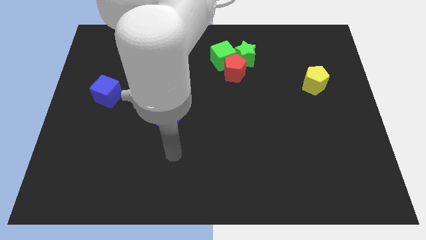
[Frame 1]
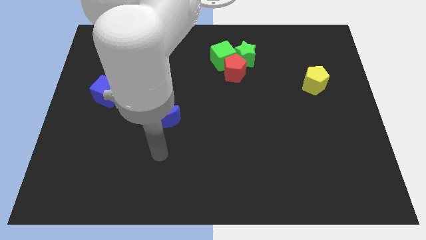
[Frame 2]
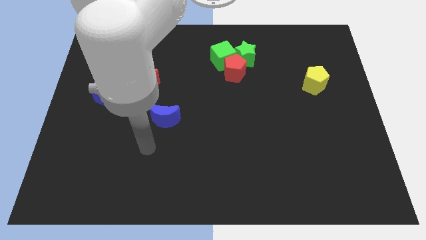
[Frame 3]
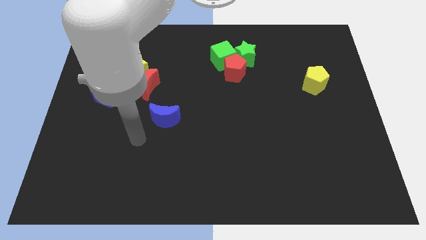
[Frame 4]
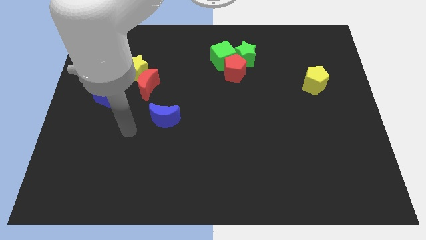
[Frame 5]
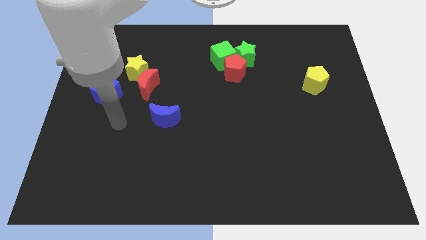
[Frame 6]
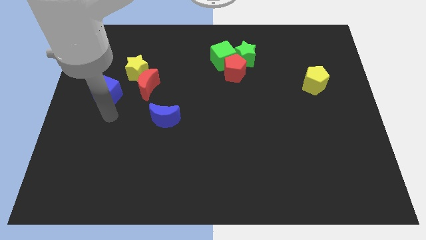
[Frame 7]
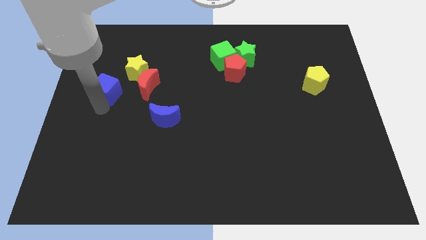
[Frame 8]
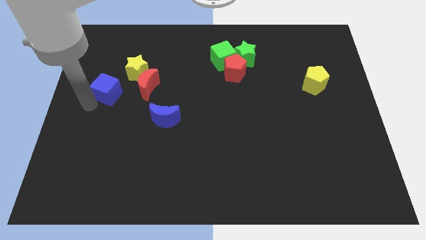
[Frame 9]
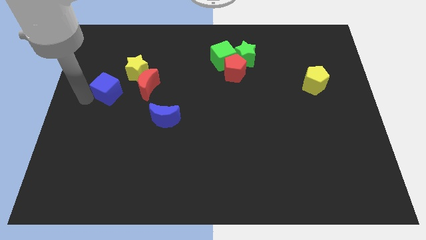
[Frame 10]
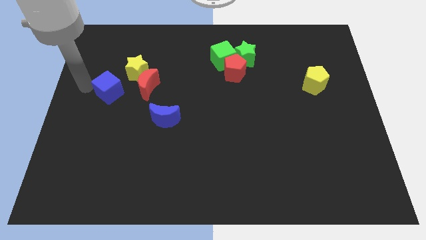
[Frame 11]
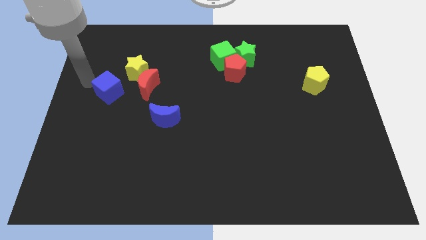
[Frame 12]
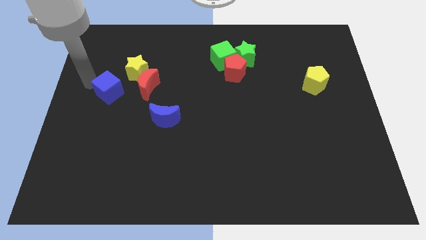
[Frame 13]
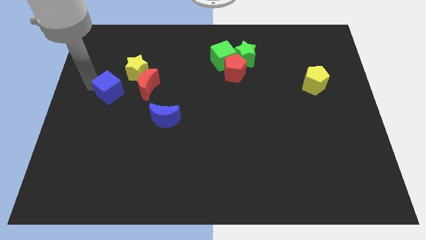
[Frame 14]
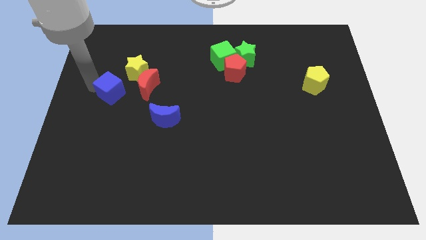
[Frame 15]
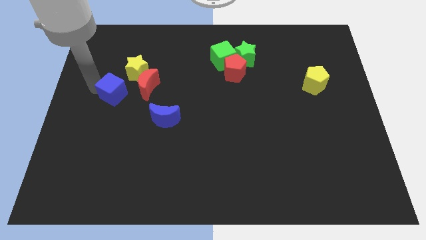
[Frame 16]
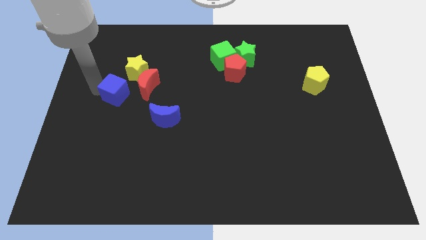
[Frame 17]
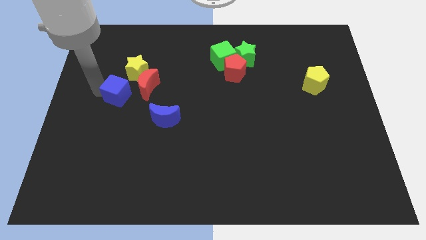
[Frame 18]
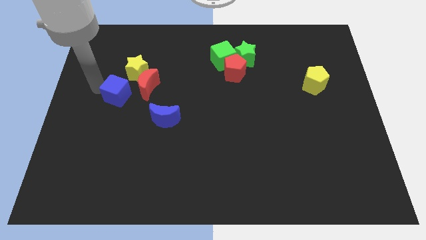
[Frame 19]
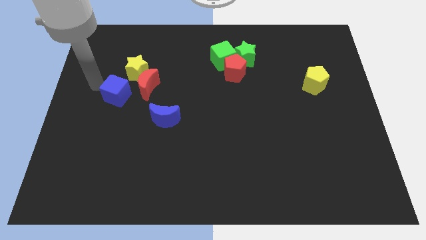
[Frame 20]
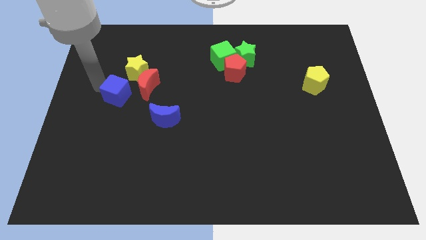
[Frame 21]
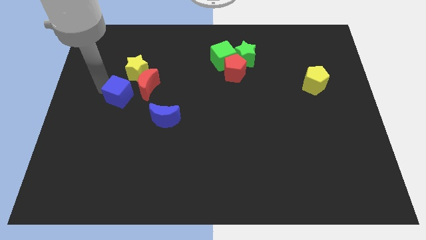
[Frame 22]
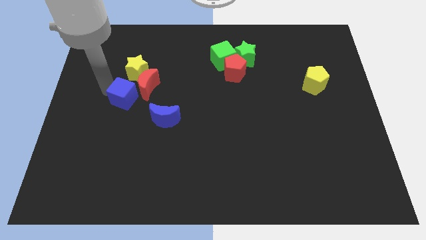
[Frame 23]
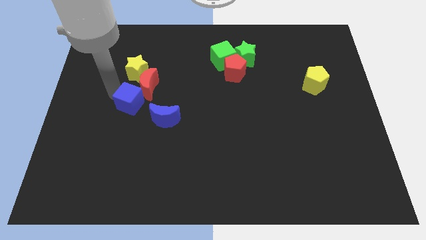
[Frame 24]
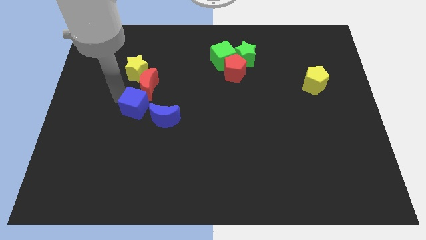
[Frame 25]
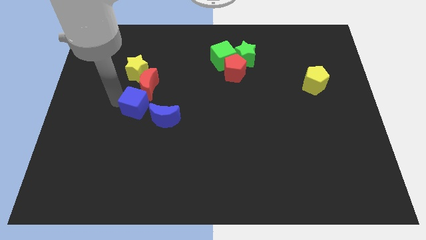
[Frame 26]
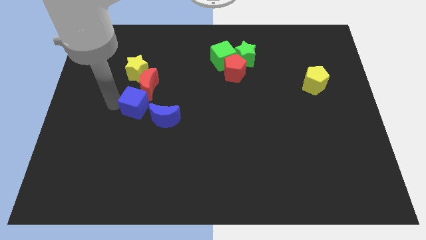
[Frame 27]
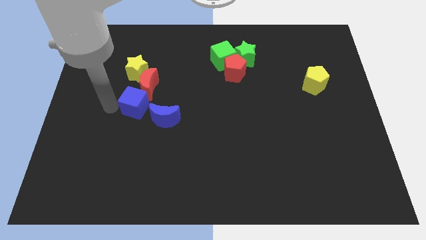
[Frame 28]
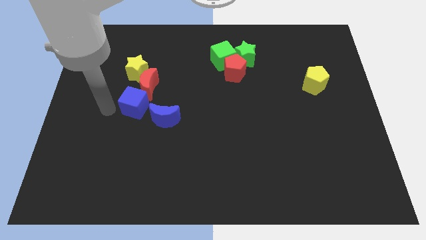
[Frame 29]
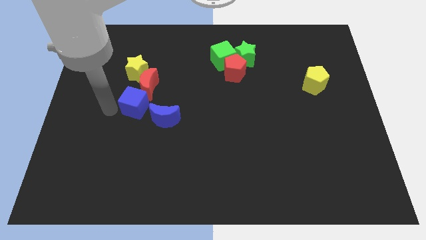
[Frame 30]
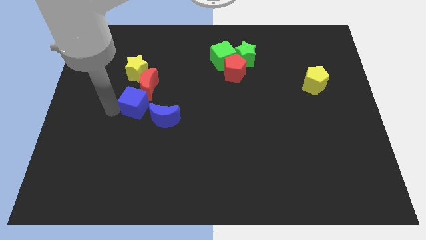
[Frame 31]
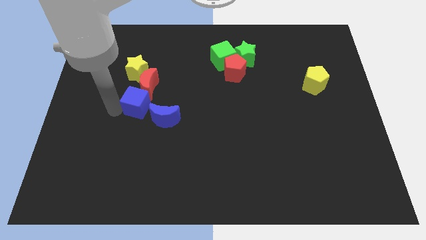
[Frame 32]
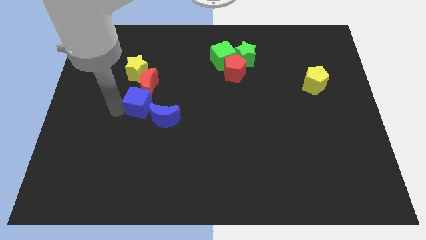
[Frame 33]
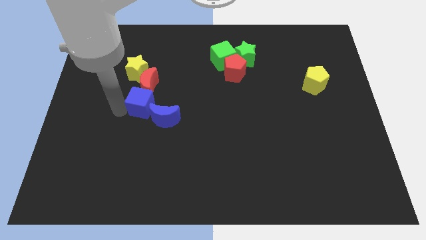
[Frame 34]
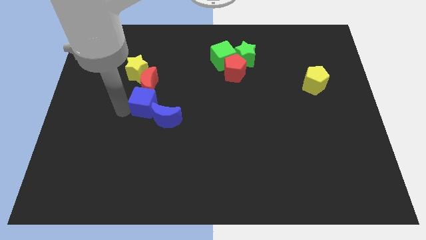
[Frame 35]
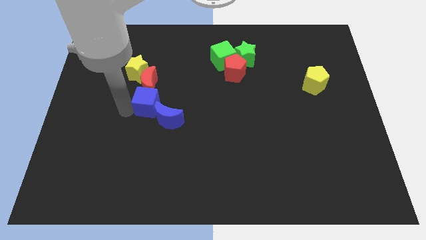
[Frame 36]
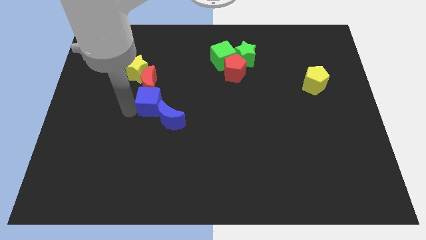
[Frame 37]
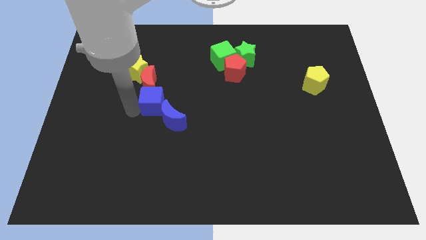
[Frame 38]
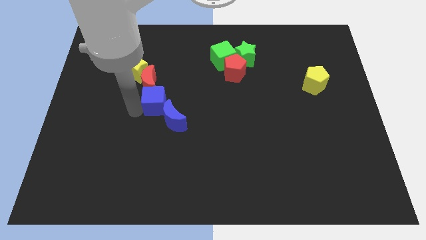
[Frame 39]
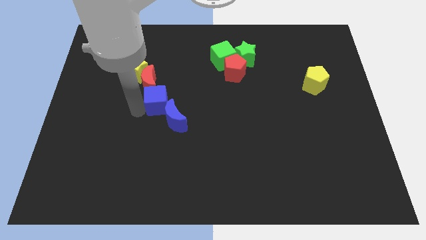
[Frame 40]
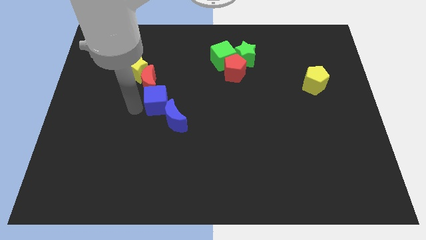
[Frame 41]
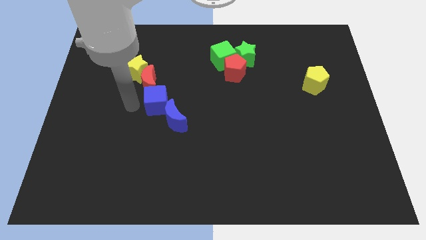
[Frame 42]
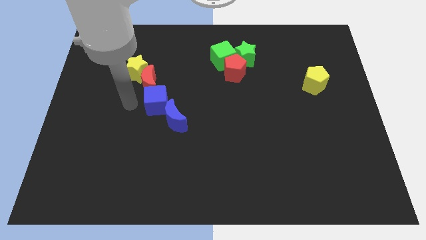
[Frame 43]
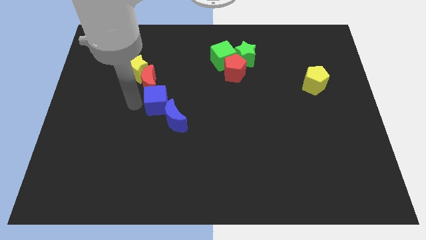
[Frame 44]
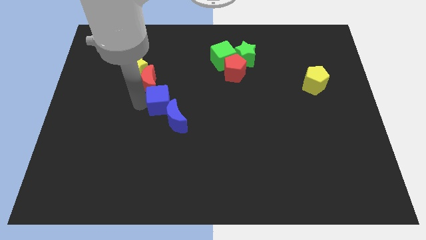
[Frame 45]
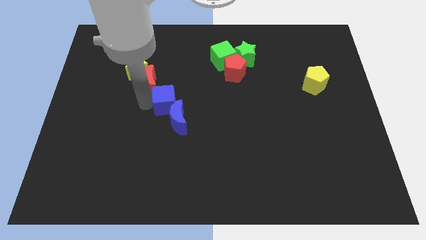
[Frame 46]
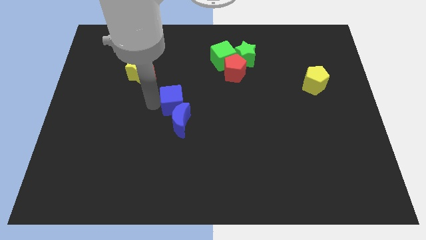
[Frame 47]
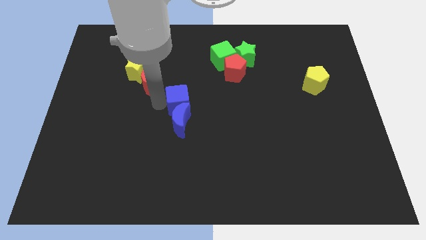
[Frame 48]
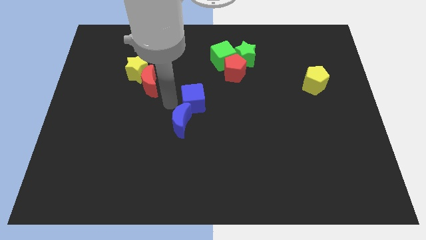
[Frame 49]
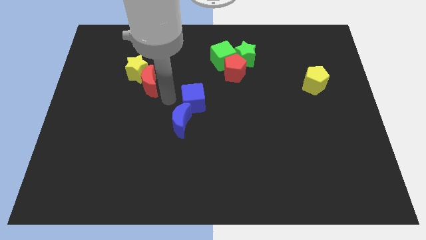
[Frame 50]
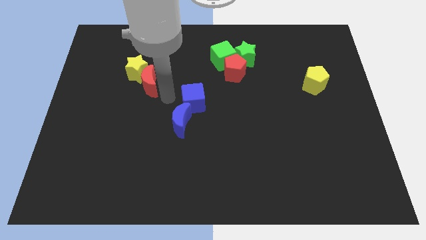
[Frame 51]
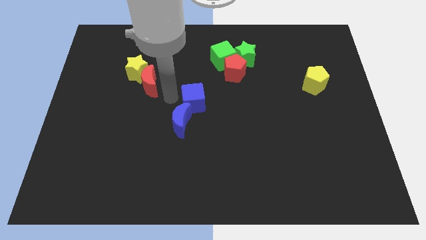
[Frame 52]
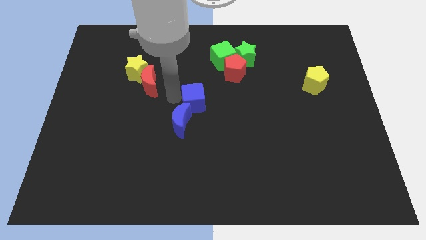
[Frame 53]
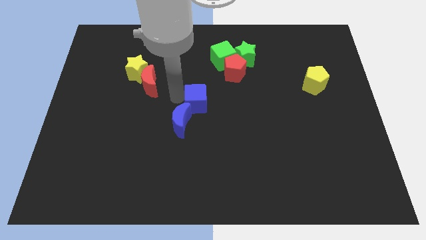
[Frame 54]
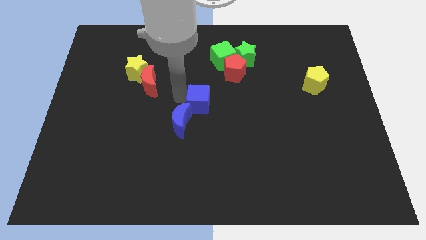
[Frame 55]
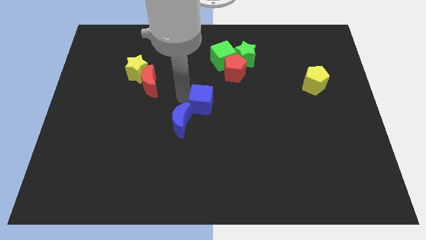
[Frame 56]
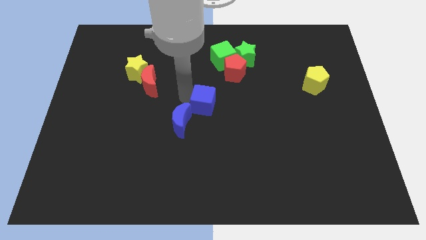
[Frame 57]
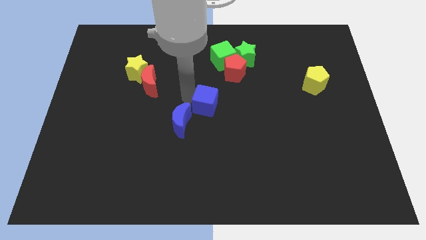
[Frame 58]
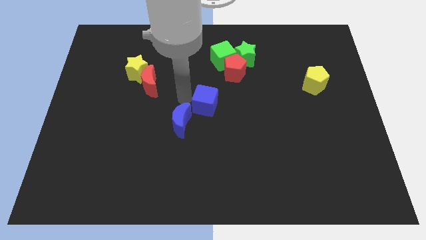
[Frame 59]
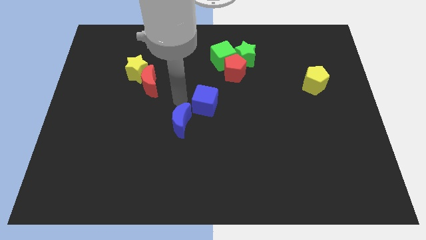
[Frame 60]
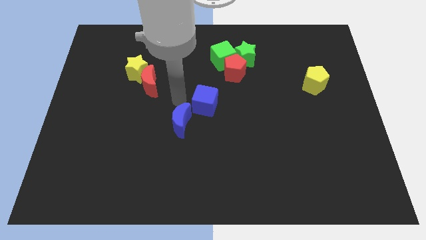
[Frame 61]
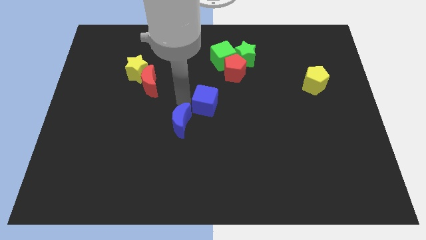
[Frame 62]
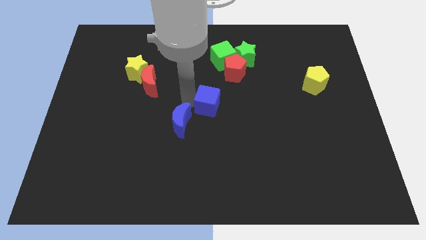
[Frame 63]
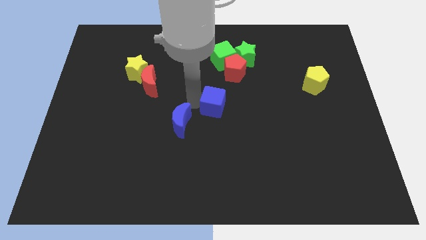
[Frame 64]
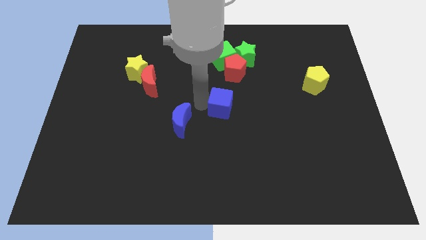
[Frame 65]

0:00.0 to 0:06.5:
put the blue cube below the red pentagon

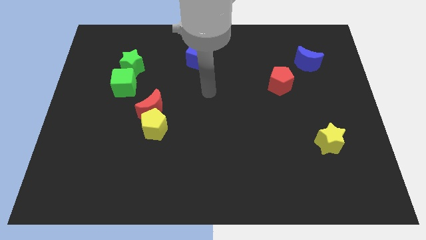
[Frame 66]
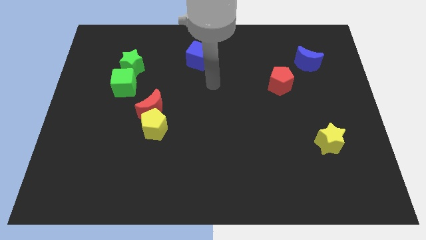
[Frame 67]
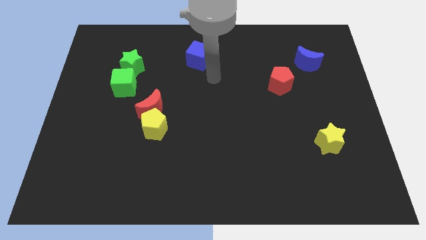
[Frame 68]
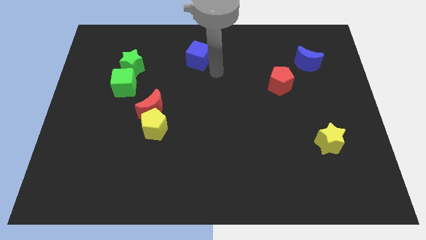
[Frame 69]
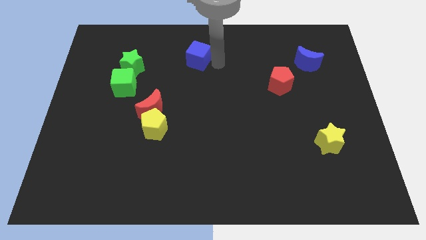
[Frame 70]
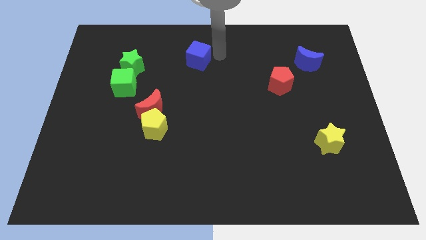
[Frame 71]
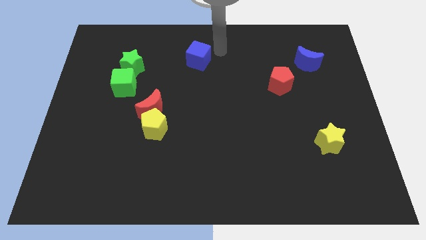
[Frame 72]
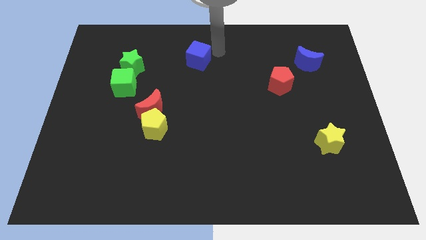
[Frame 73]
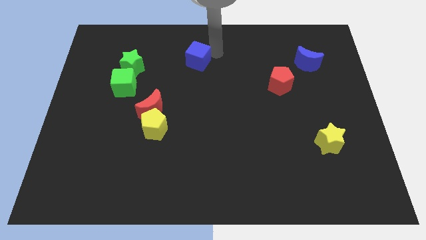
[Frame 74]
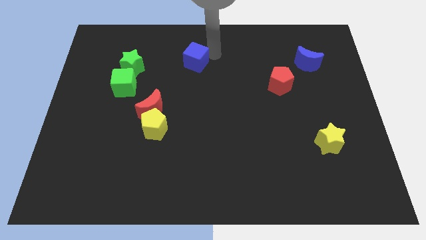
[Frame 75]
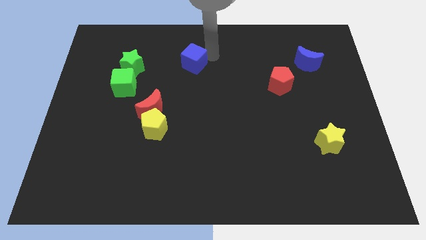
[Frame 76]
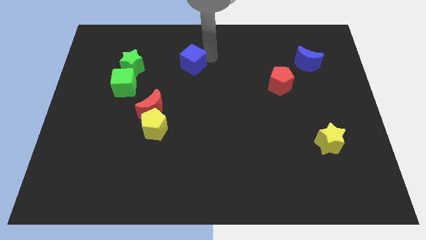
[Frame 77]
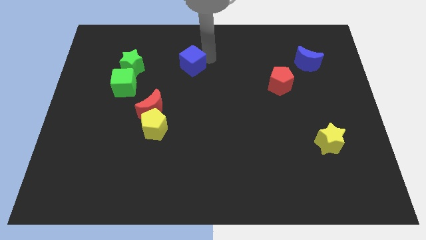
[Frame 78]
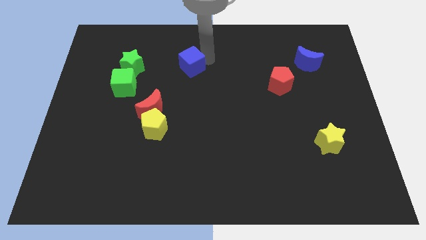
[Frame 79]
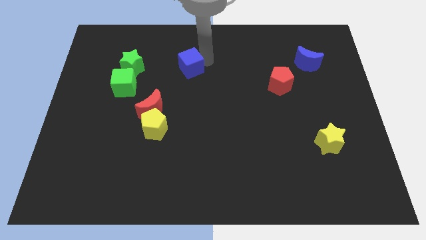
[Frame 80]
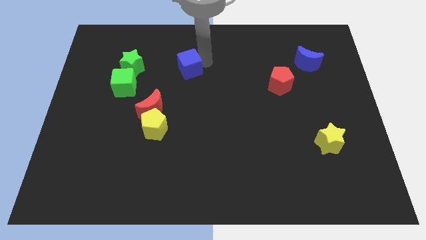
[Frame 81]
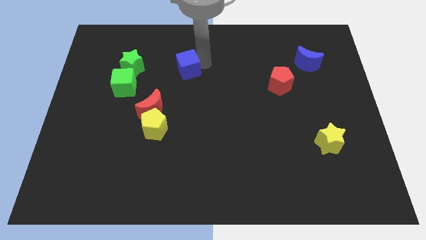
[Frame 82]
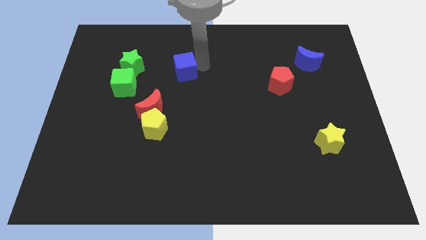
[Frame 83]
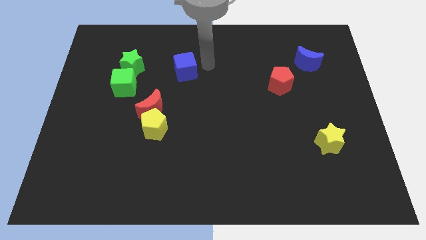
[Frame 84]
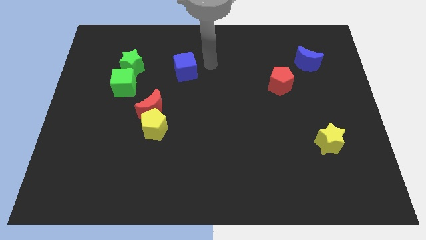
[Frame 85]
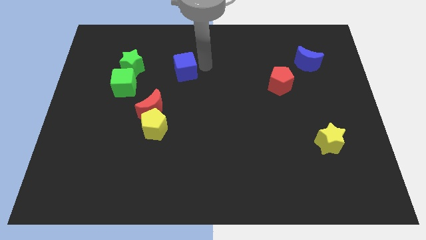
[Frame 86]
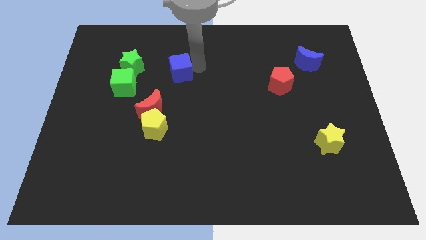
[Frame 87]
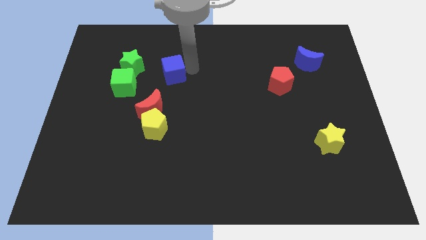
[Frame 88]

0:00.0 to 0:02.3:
move the blue cube to the top of the red moon
